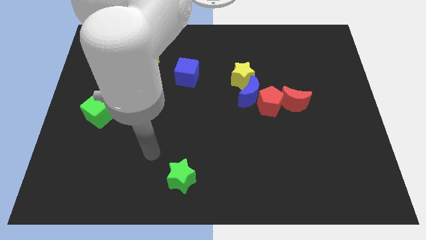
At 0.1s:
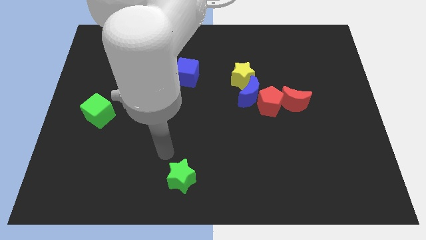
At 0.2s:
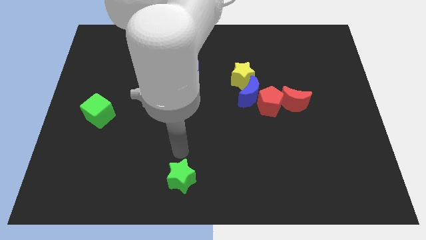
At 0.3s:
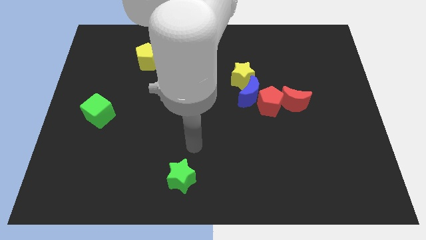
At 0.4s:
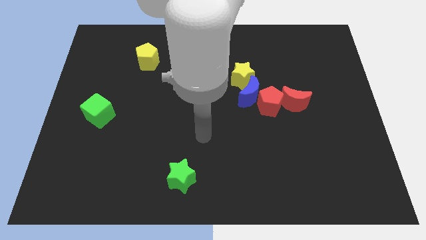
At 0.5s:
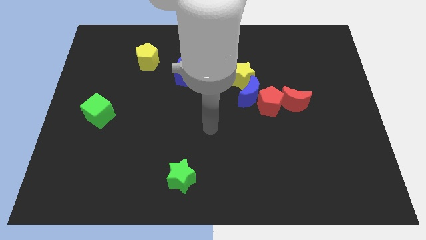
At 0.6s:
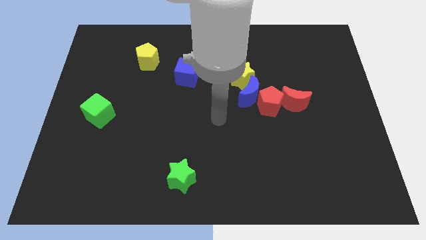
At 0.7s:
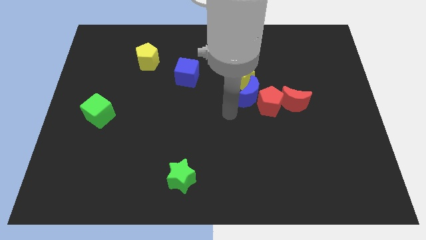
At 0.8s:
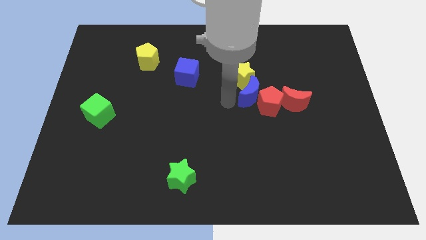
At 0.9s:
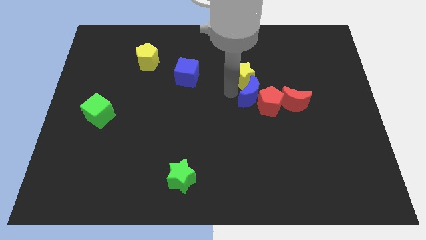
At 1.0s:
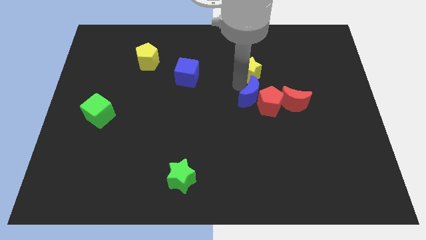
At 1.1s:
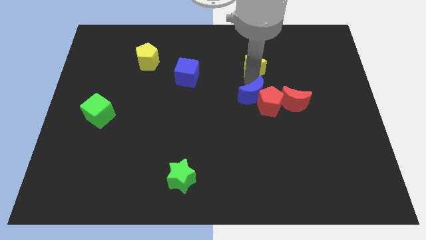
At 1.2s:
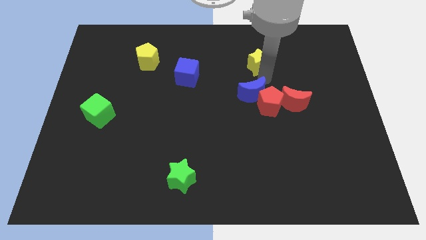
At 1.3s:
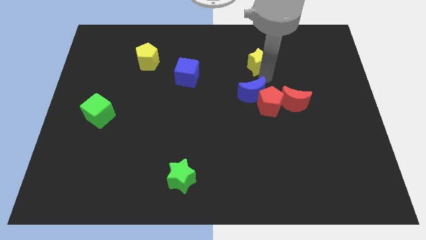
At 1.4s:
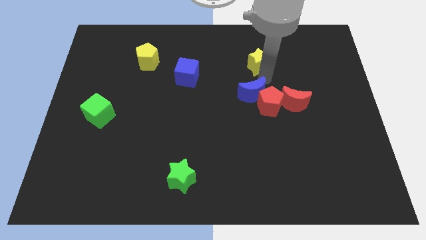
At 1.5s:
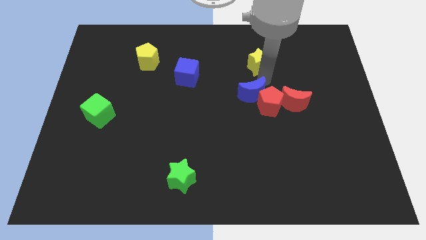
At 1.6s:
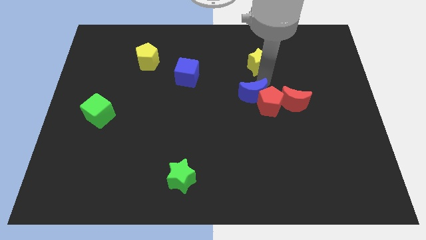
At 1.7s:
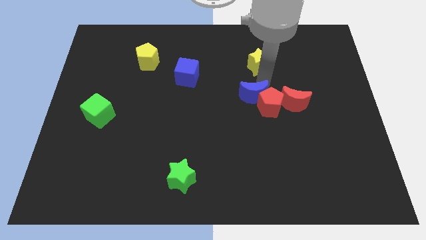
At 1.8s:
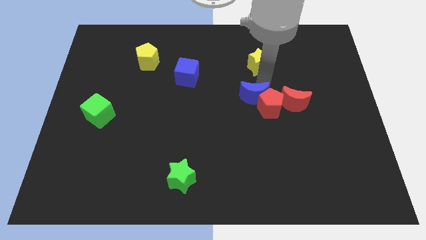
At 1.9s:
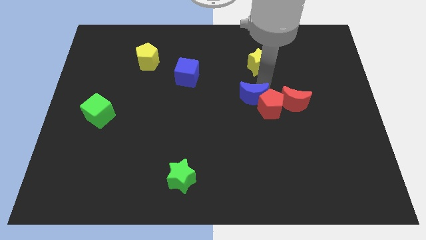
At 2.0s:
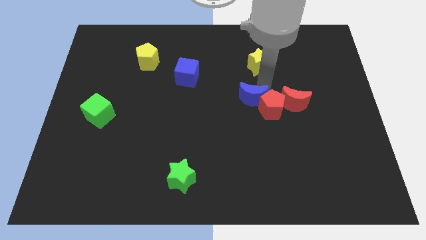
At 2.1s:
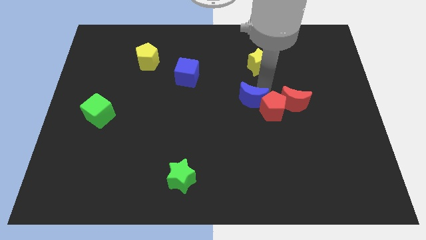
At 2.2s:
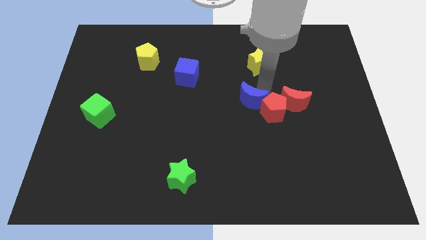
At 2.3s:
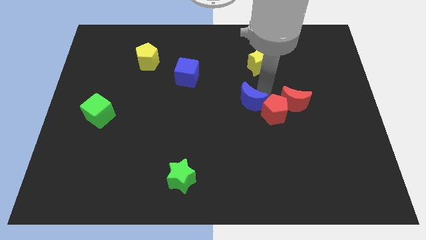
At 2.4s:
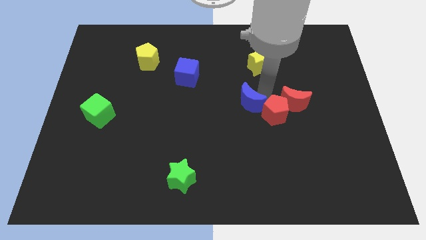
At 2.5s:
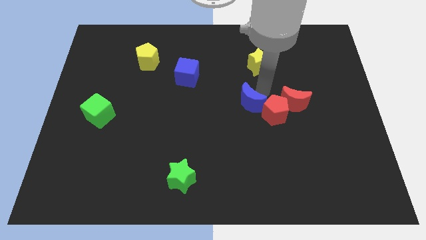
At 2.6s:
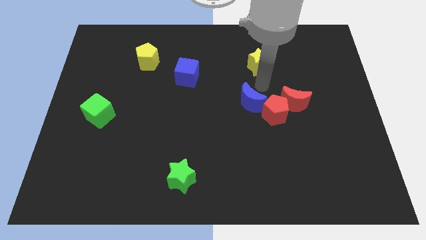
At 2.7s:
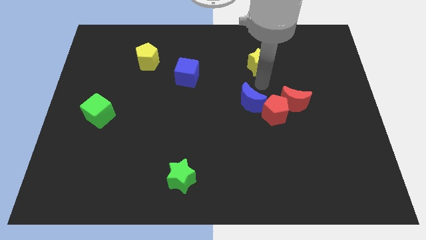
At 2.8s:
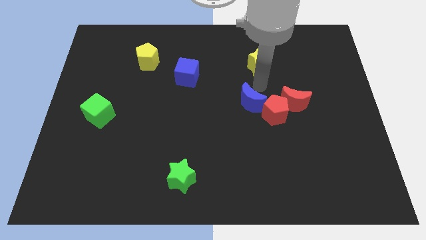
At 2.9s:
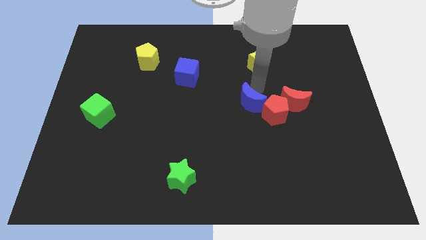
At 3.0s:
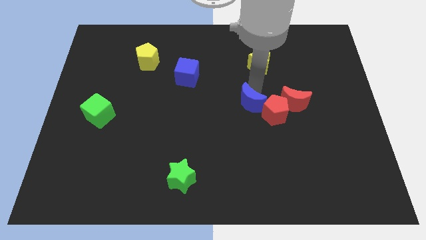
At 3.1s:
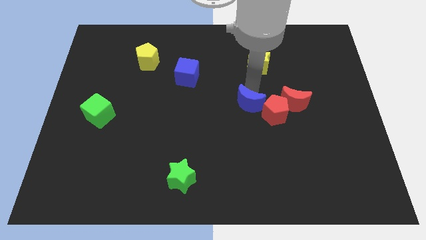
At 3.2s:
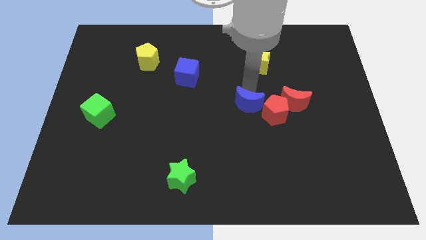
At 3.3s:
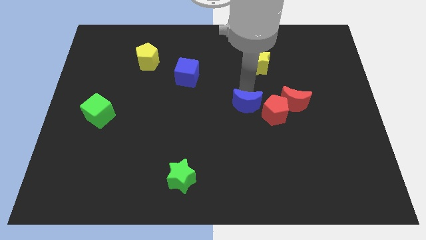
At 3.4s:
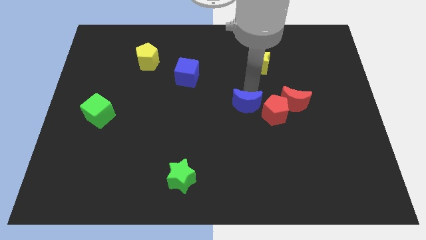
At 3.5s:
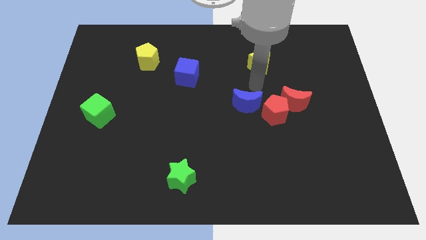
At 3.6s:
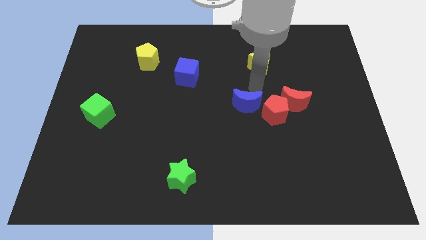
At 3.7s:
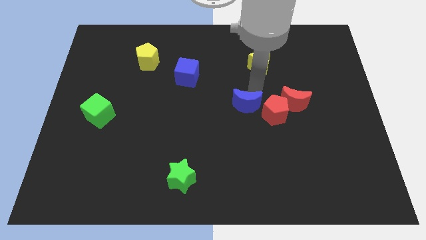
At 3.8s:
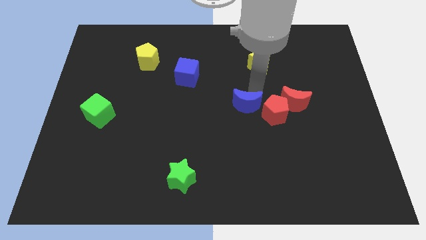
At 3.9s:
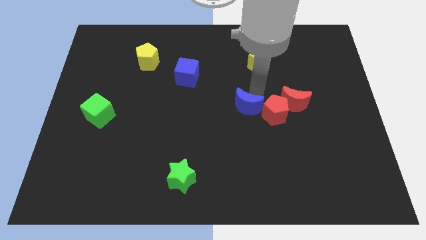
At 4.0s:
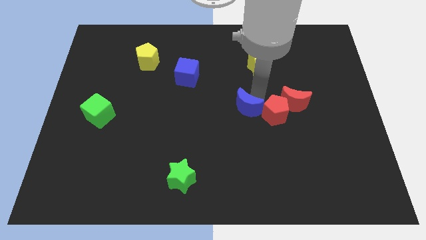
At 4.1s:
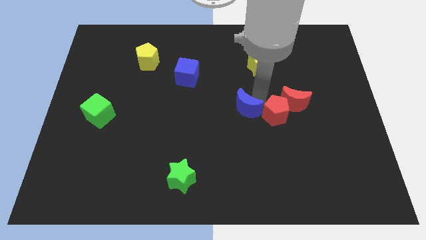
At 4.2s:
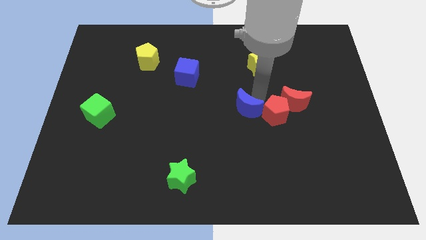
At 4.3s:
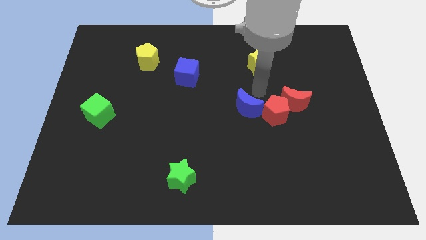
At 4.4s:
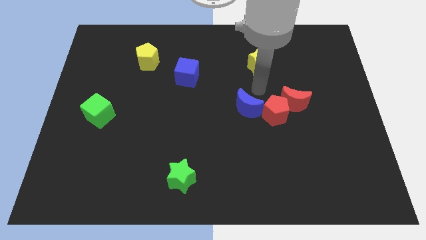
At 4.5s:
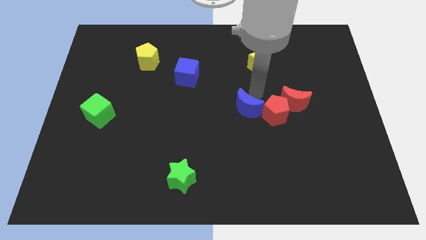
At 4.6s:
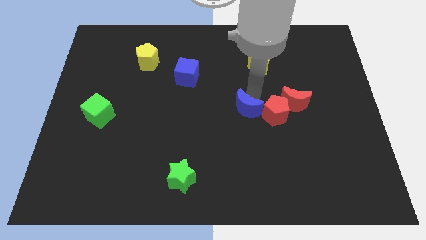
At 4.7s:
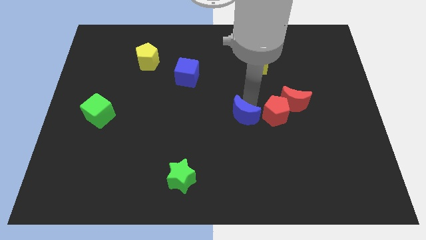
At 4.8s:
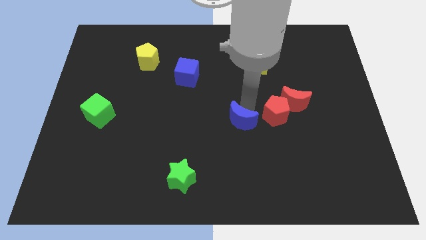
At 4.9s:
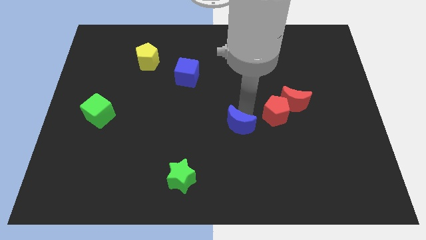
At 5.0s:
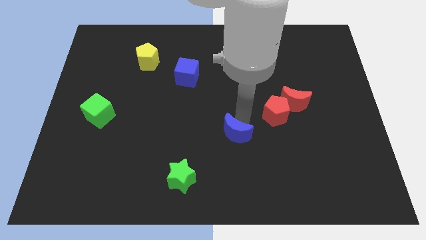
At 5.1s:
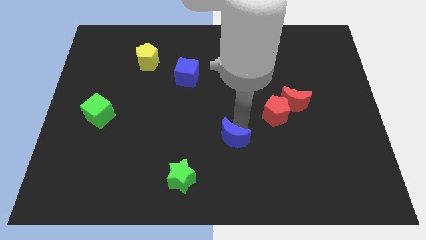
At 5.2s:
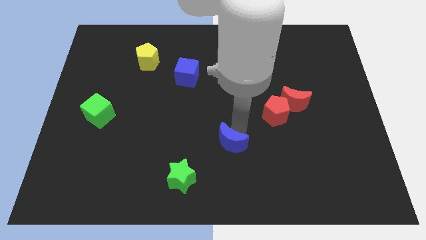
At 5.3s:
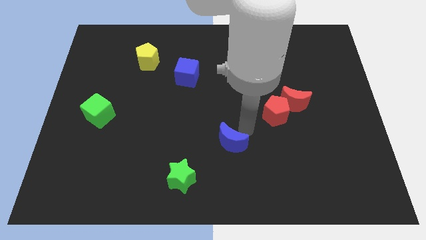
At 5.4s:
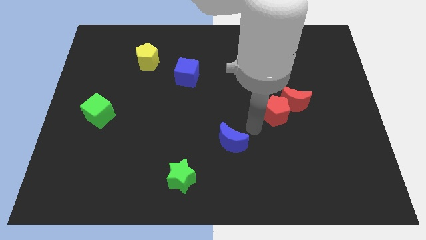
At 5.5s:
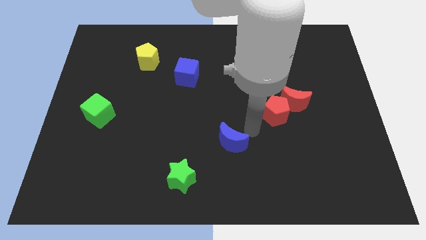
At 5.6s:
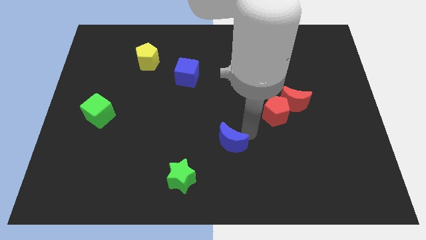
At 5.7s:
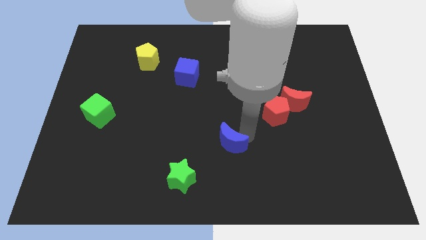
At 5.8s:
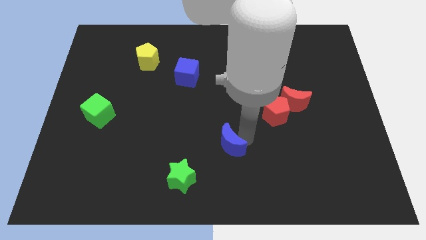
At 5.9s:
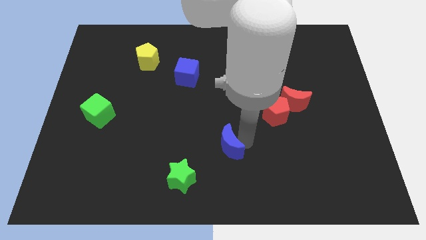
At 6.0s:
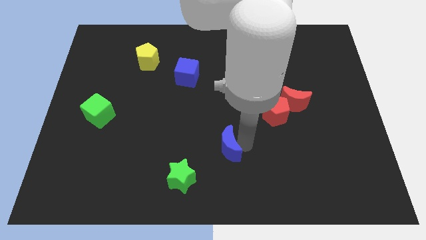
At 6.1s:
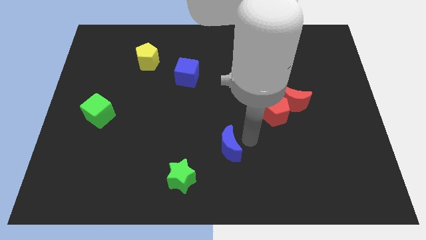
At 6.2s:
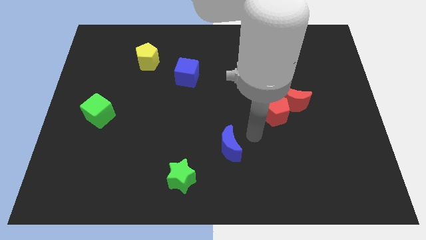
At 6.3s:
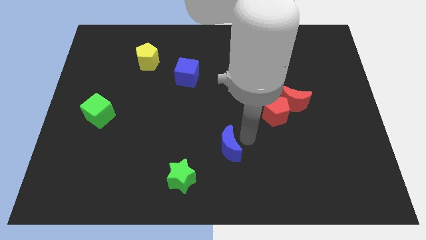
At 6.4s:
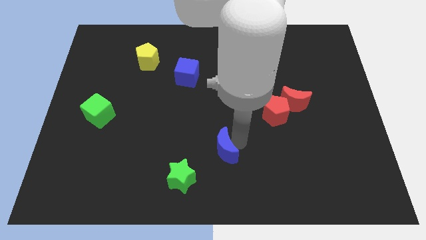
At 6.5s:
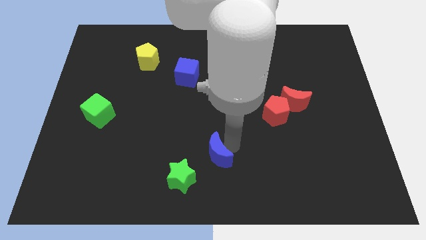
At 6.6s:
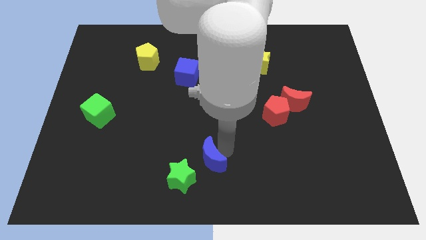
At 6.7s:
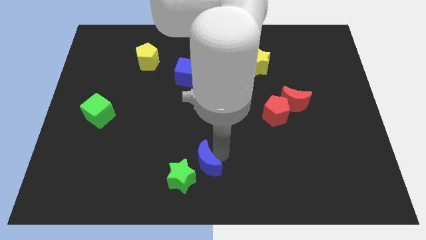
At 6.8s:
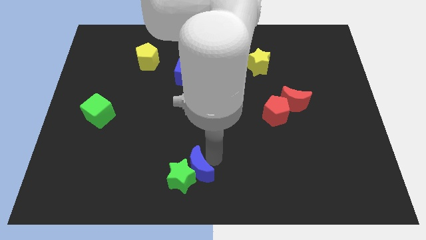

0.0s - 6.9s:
move the blue moon towards the green star
